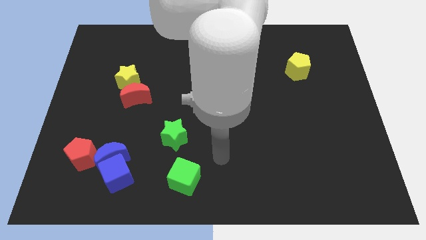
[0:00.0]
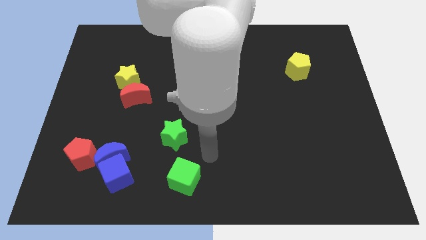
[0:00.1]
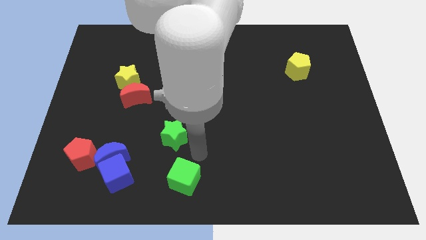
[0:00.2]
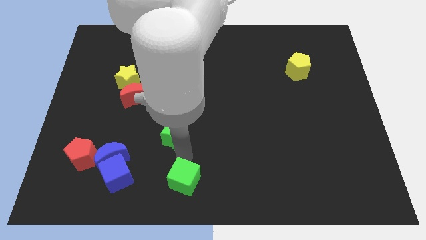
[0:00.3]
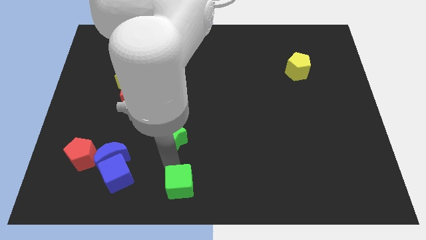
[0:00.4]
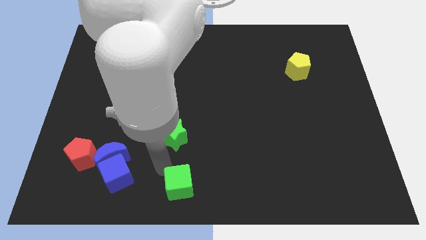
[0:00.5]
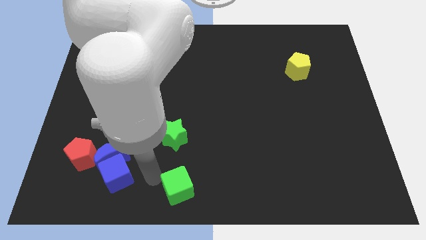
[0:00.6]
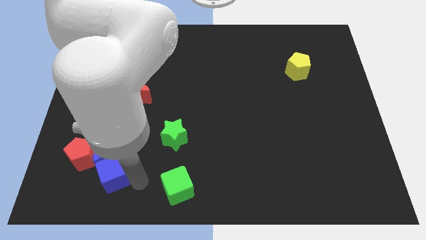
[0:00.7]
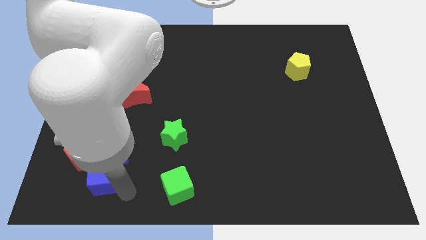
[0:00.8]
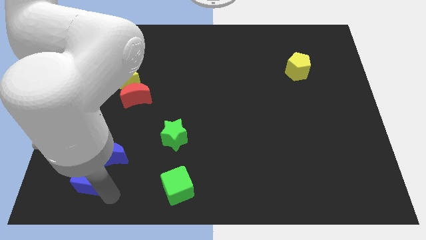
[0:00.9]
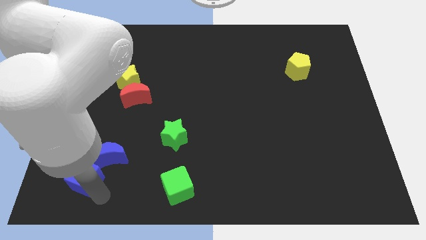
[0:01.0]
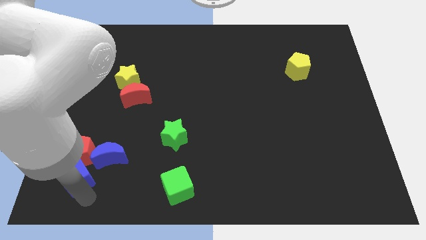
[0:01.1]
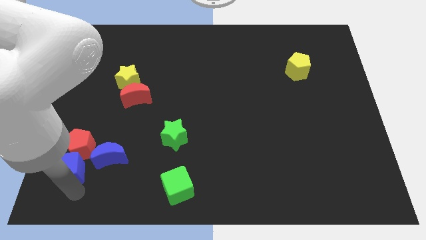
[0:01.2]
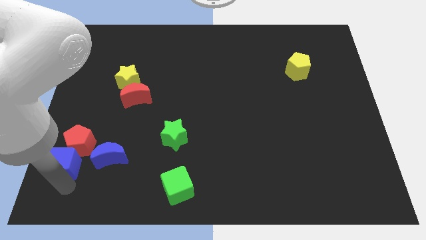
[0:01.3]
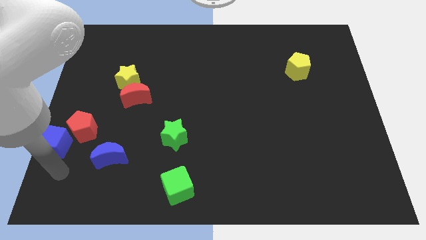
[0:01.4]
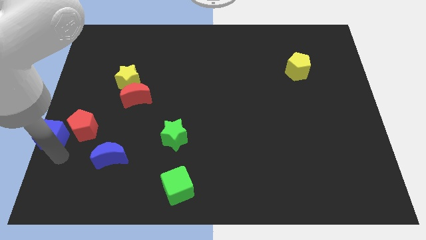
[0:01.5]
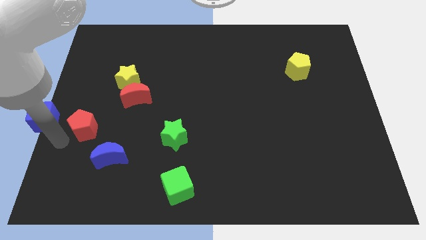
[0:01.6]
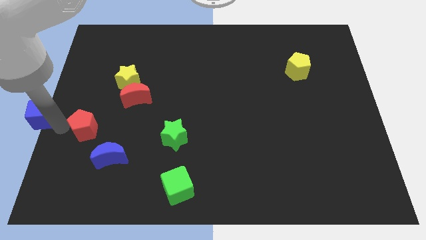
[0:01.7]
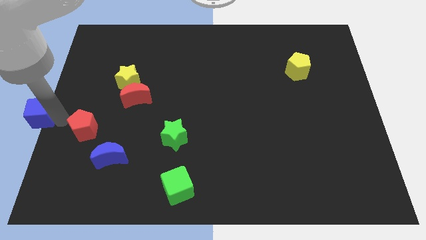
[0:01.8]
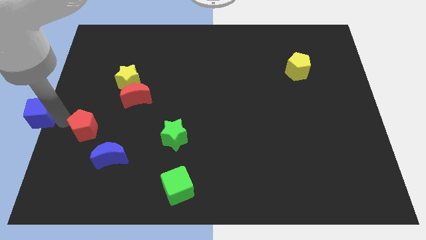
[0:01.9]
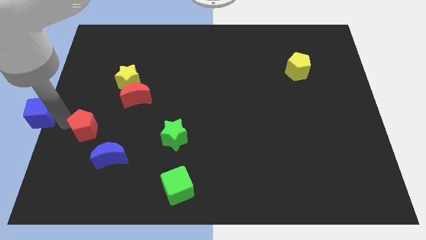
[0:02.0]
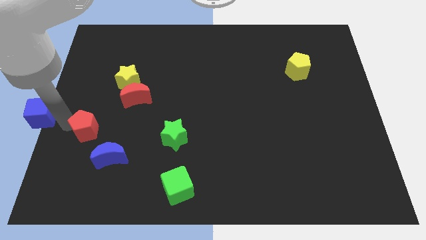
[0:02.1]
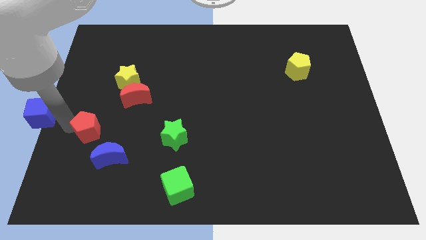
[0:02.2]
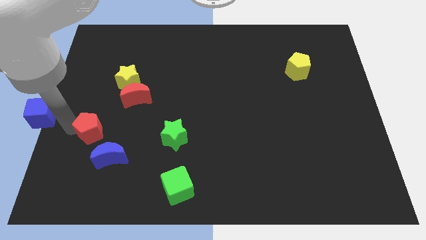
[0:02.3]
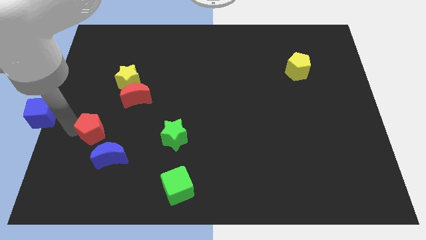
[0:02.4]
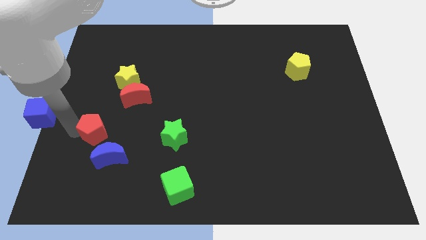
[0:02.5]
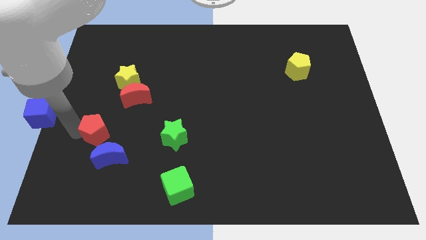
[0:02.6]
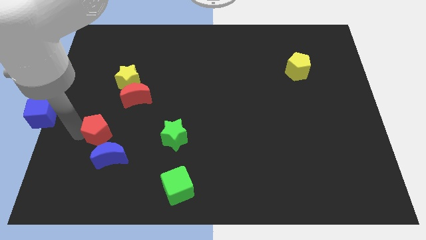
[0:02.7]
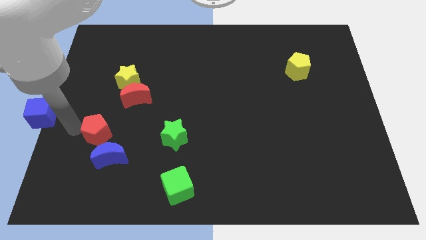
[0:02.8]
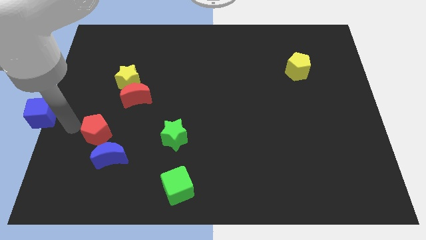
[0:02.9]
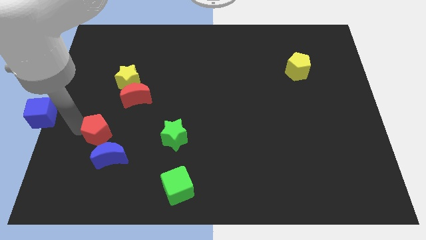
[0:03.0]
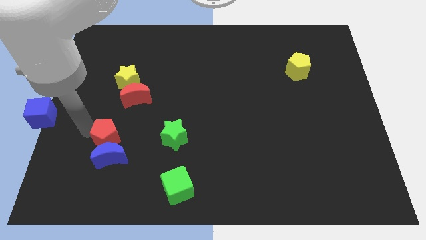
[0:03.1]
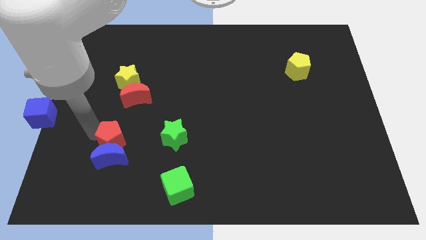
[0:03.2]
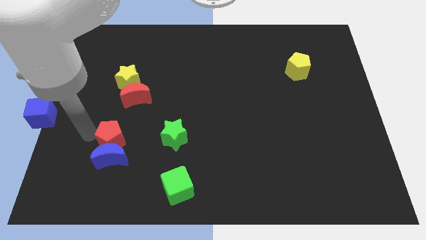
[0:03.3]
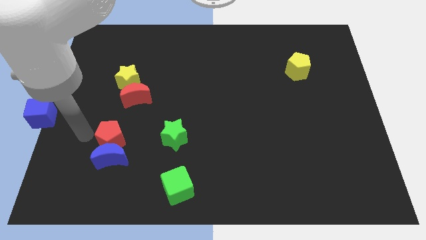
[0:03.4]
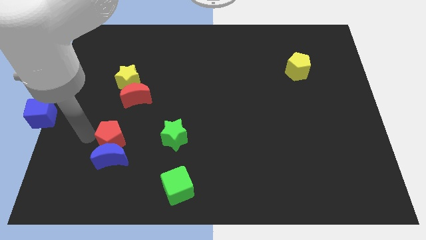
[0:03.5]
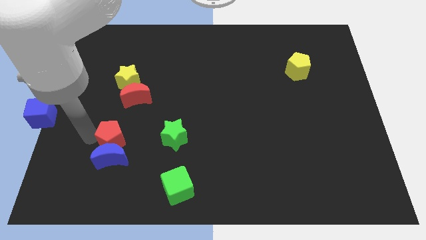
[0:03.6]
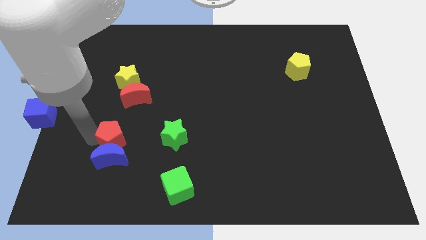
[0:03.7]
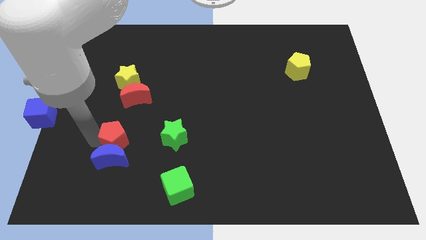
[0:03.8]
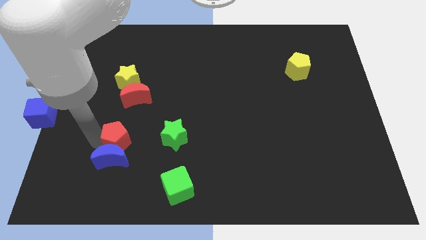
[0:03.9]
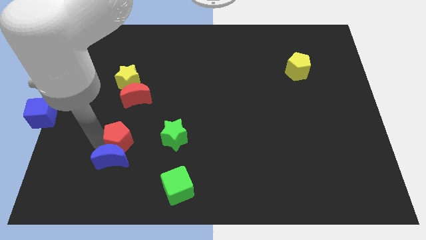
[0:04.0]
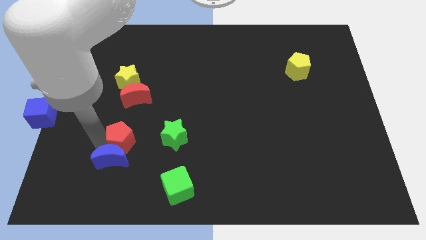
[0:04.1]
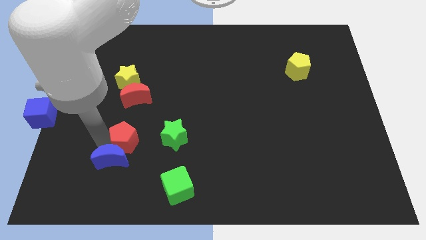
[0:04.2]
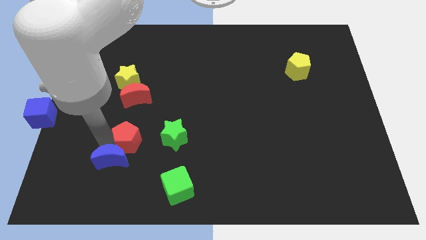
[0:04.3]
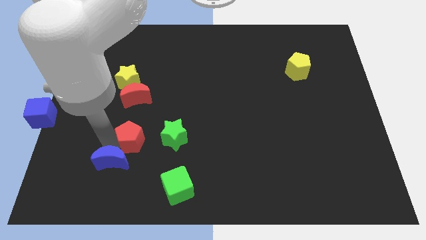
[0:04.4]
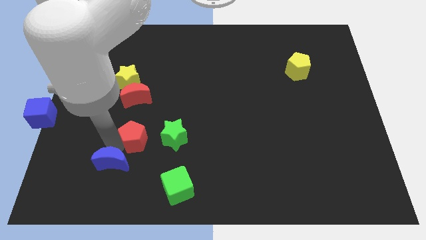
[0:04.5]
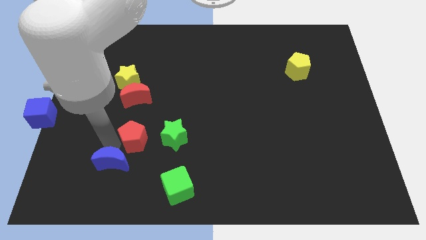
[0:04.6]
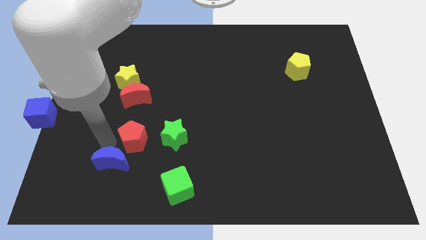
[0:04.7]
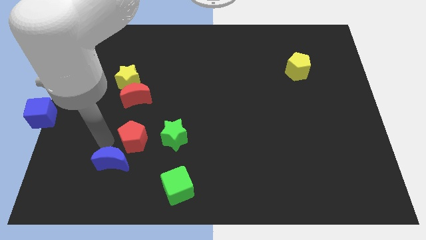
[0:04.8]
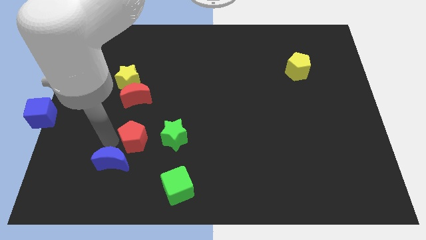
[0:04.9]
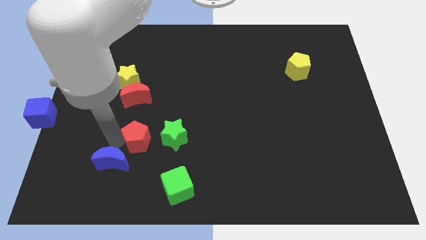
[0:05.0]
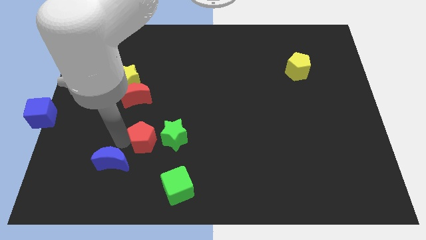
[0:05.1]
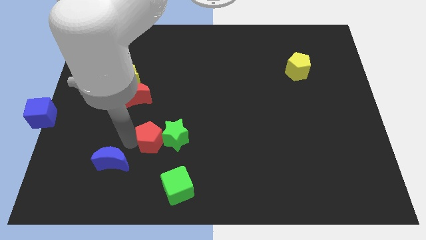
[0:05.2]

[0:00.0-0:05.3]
move the red pentagon towards the green star

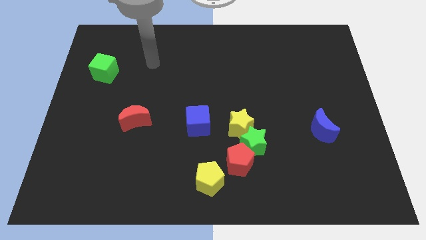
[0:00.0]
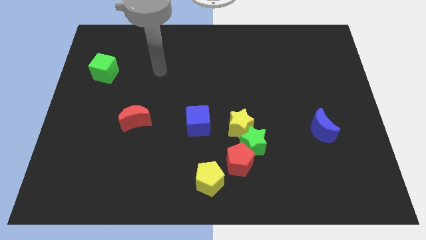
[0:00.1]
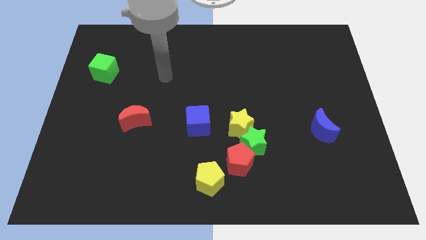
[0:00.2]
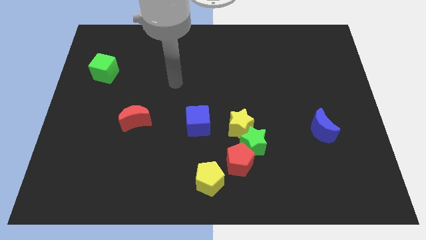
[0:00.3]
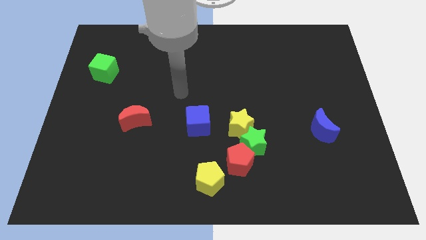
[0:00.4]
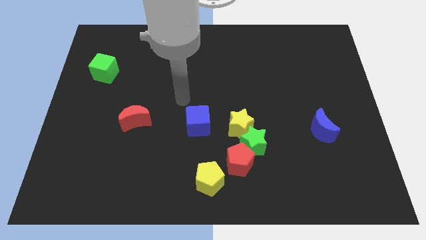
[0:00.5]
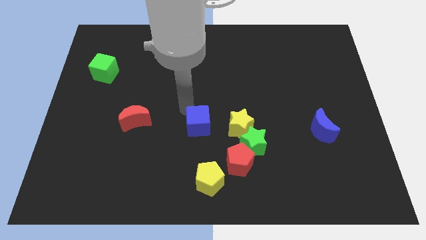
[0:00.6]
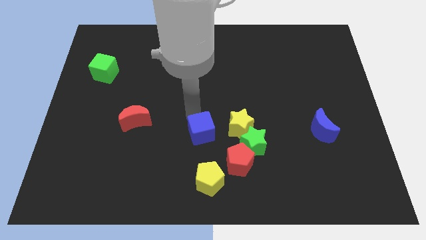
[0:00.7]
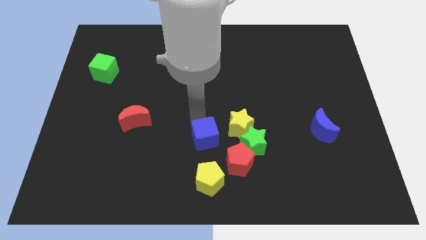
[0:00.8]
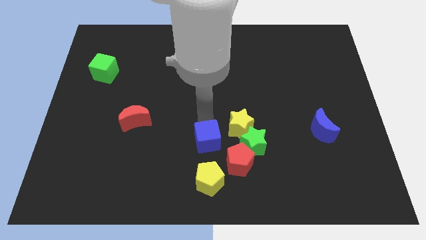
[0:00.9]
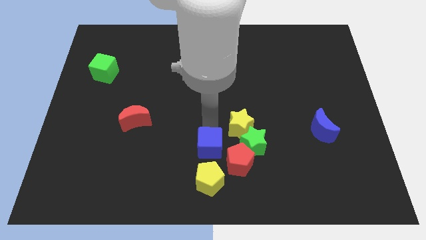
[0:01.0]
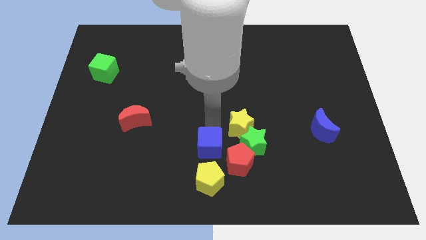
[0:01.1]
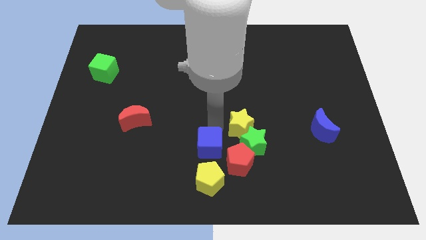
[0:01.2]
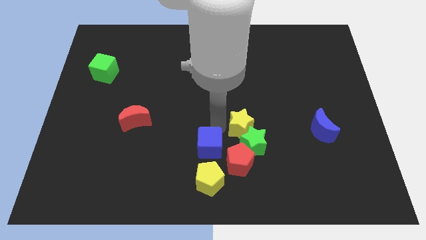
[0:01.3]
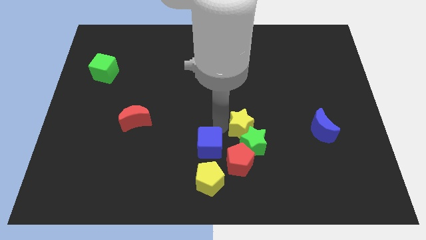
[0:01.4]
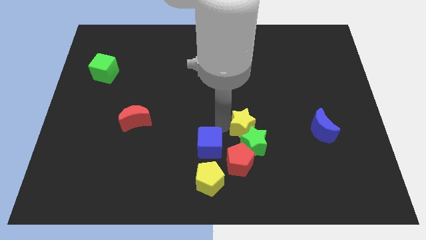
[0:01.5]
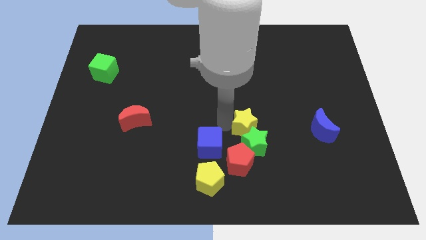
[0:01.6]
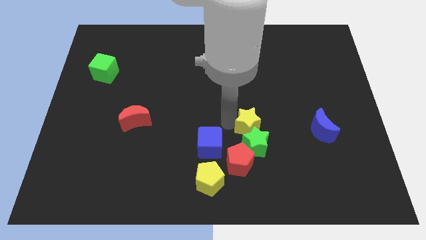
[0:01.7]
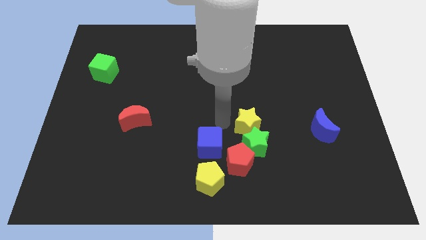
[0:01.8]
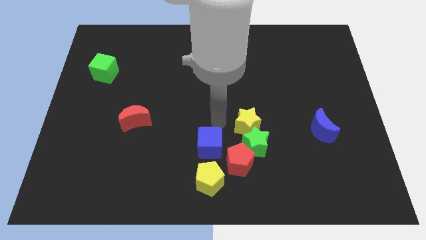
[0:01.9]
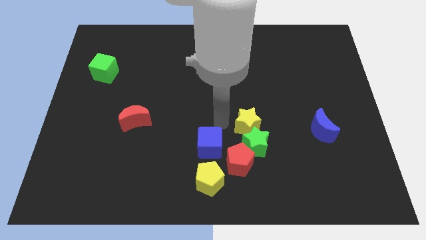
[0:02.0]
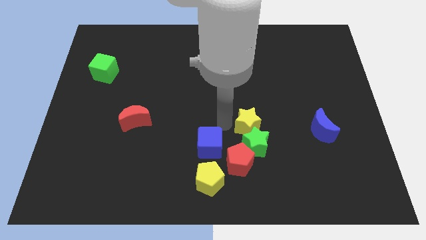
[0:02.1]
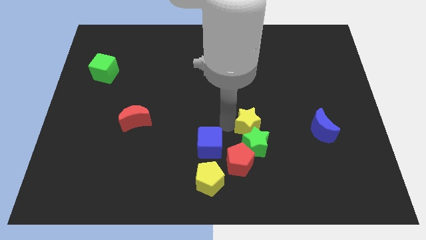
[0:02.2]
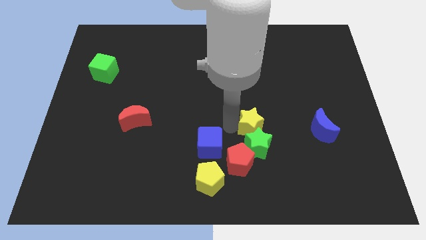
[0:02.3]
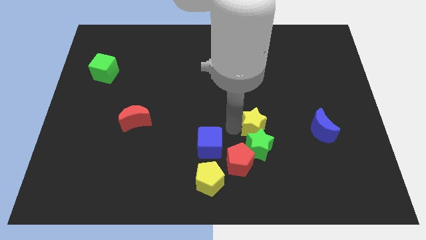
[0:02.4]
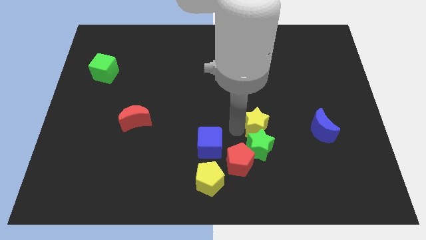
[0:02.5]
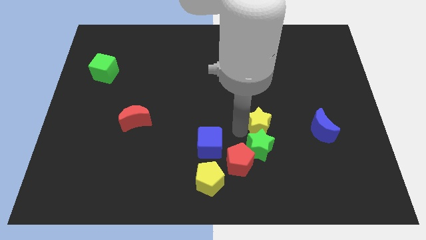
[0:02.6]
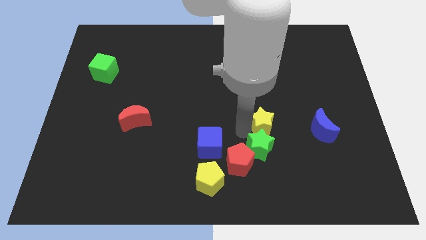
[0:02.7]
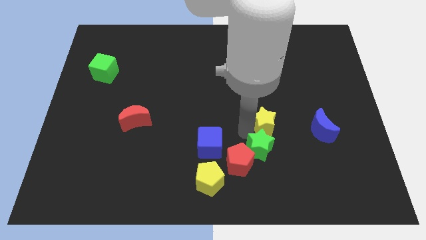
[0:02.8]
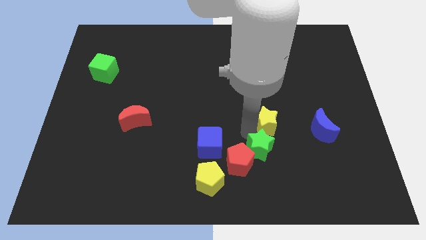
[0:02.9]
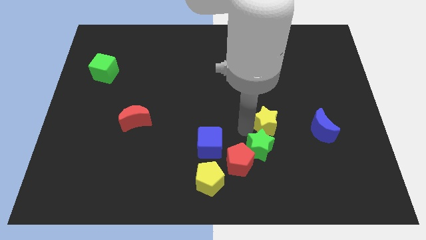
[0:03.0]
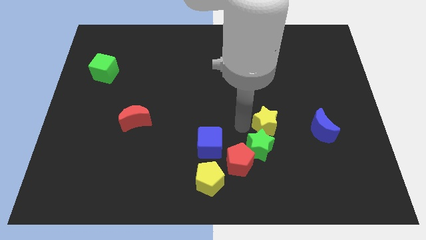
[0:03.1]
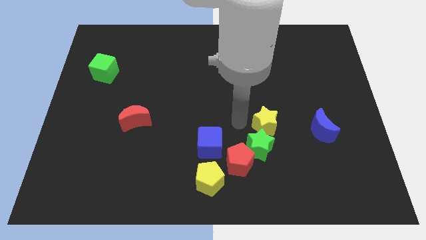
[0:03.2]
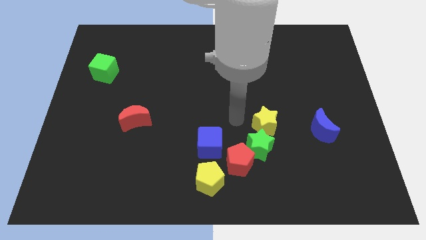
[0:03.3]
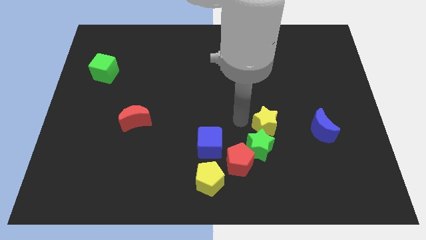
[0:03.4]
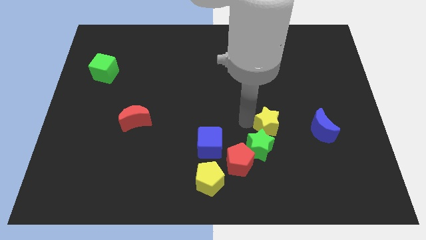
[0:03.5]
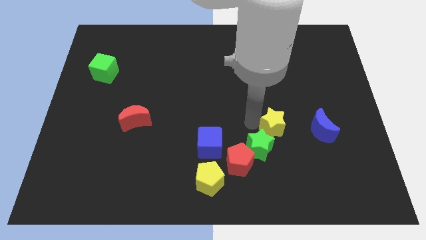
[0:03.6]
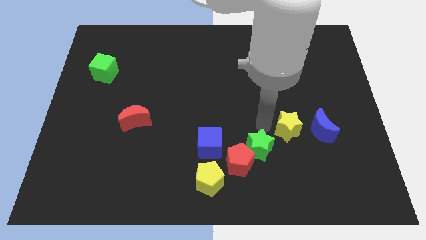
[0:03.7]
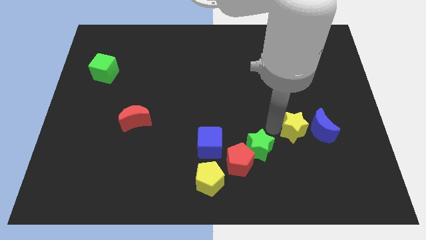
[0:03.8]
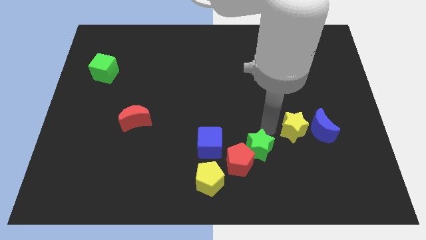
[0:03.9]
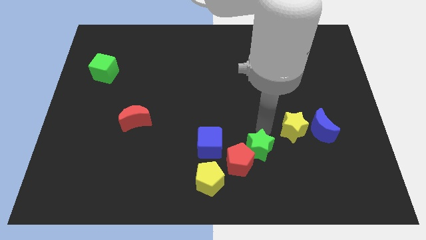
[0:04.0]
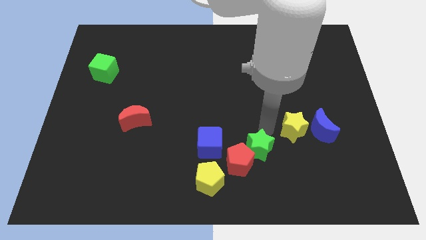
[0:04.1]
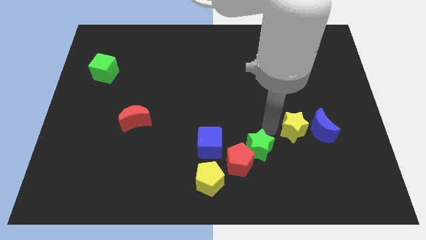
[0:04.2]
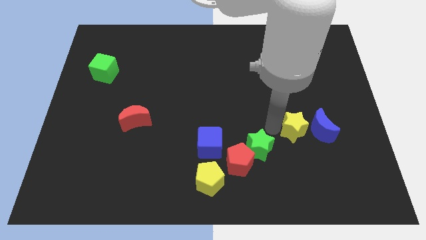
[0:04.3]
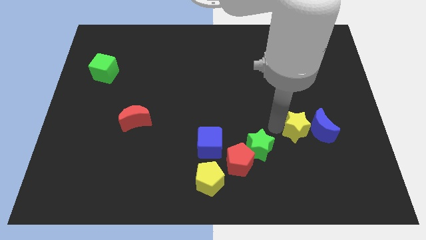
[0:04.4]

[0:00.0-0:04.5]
push the yellow star towards the blue moon
